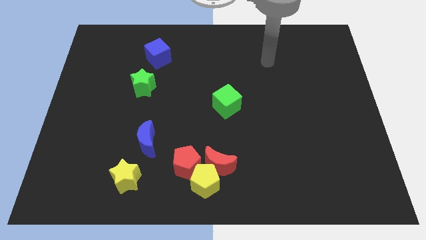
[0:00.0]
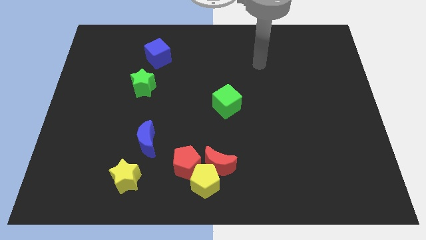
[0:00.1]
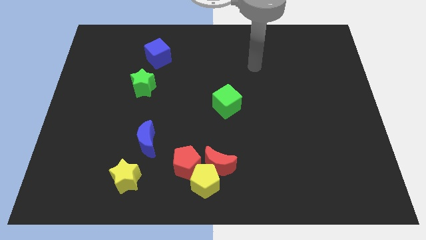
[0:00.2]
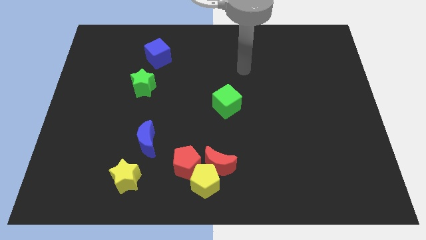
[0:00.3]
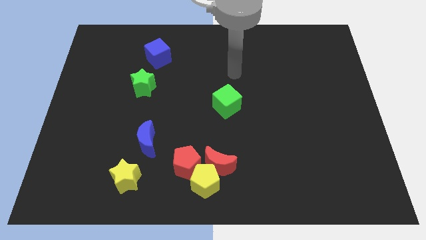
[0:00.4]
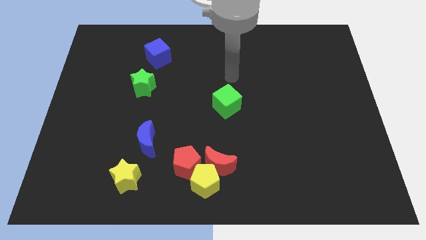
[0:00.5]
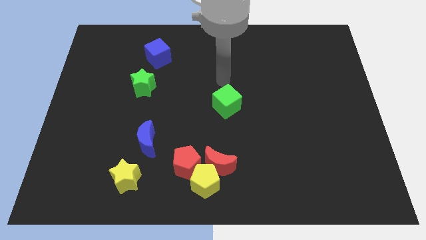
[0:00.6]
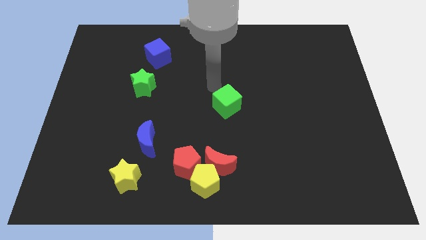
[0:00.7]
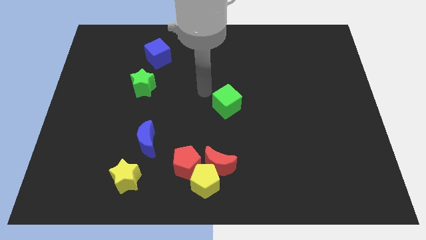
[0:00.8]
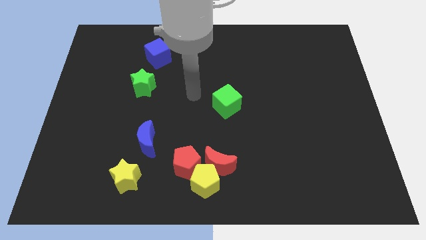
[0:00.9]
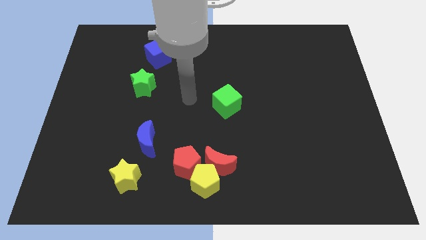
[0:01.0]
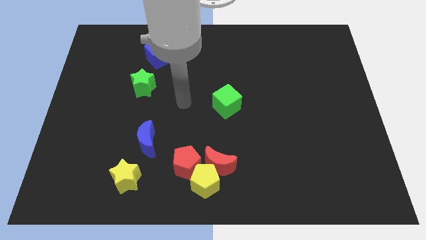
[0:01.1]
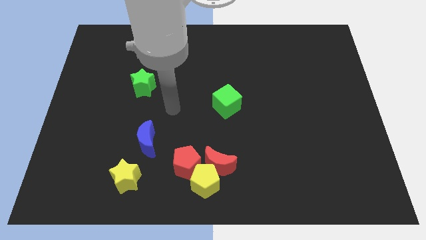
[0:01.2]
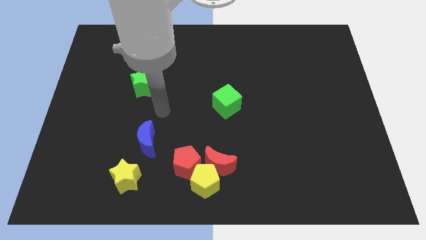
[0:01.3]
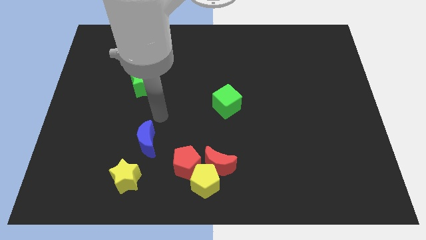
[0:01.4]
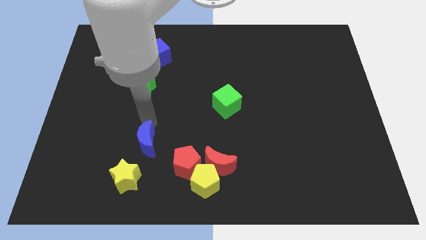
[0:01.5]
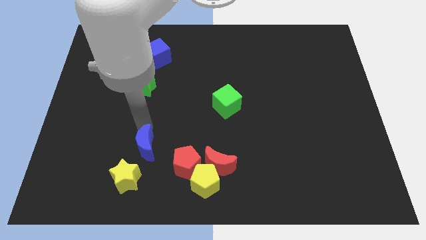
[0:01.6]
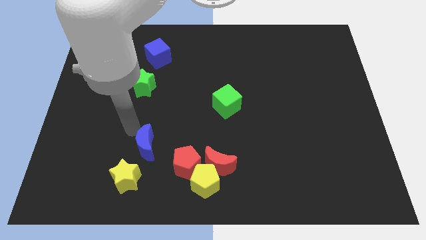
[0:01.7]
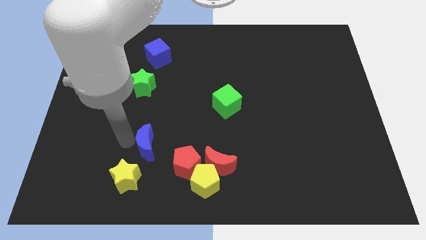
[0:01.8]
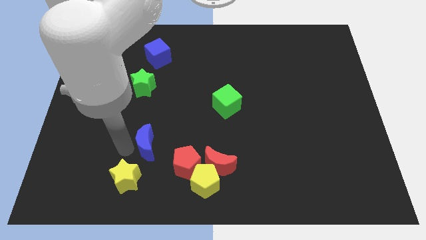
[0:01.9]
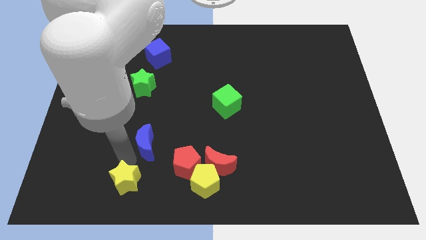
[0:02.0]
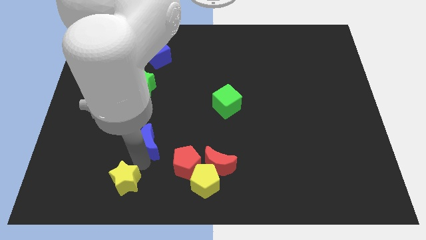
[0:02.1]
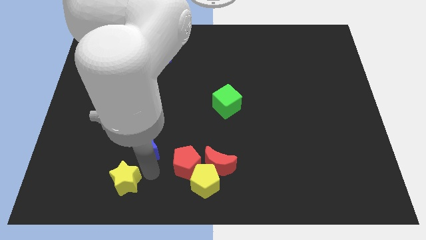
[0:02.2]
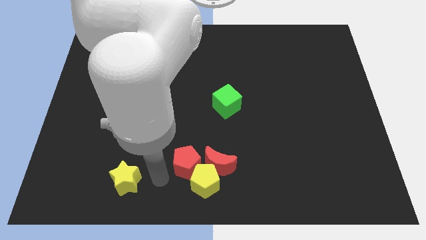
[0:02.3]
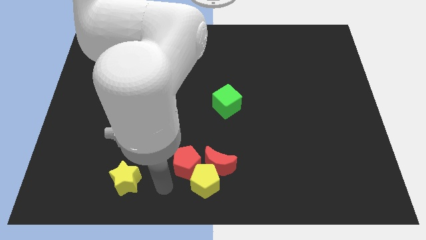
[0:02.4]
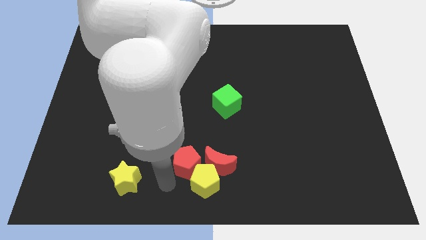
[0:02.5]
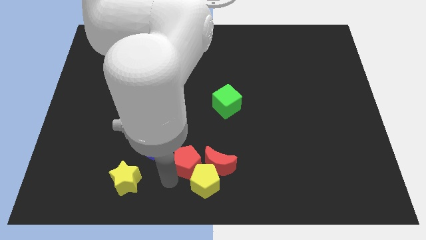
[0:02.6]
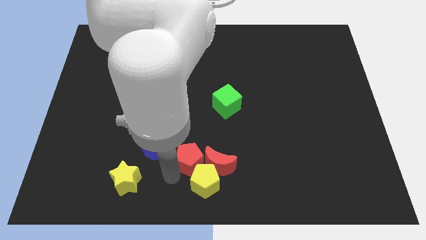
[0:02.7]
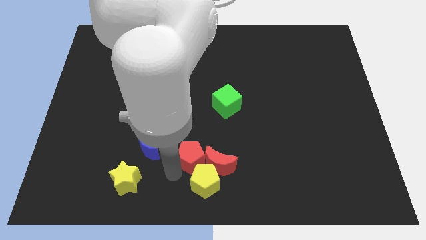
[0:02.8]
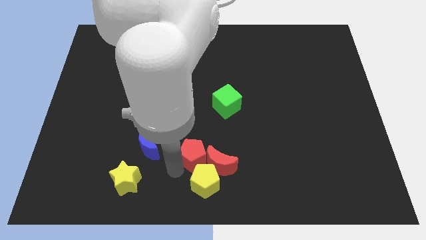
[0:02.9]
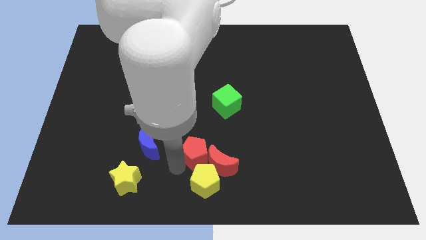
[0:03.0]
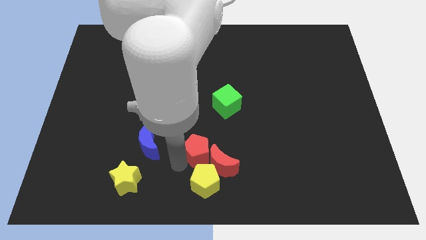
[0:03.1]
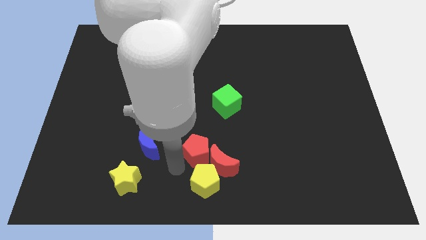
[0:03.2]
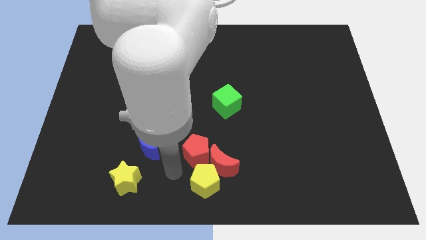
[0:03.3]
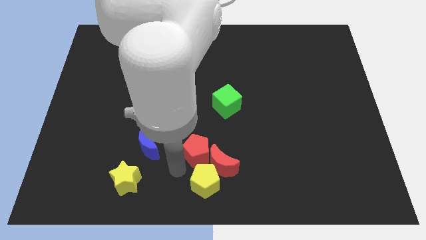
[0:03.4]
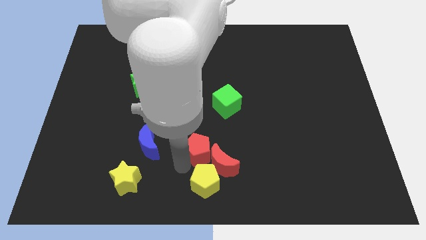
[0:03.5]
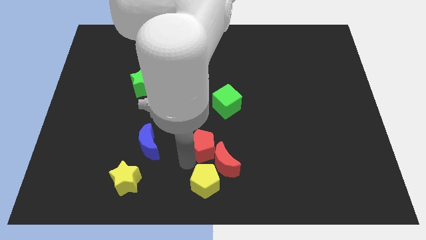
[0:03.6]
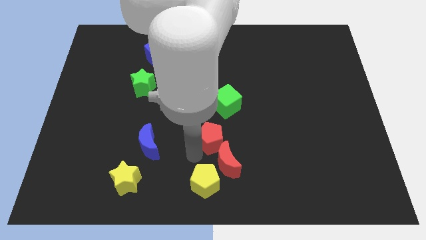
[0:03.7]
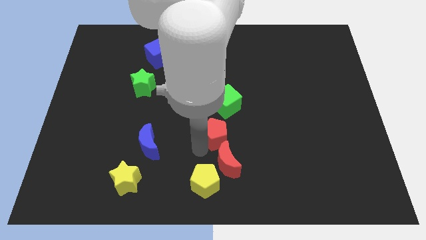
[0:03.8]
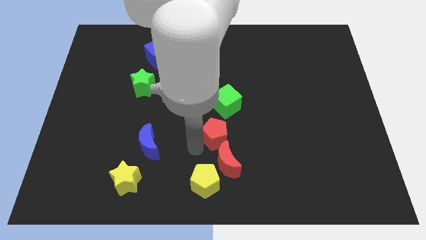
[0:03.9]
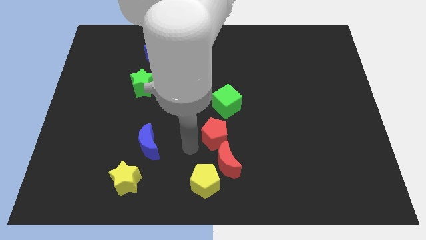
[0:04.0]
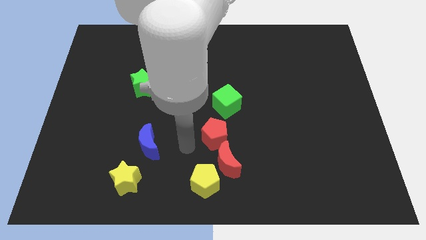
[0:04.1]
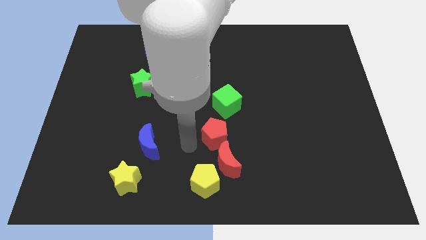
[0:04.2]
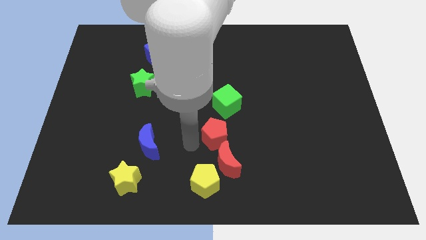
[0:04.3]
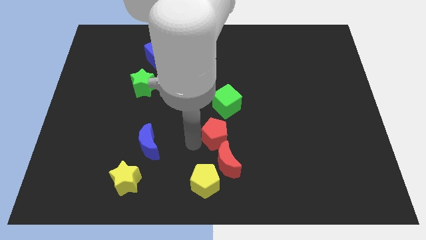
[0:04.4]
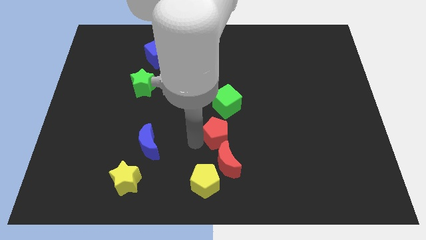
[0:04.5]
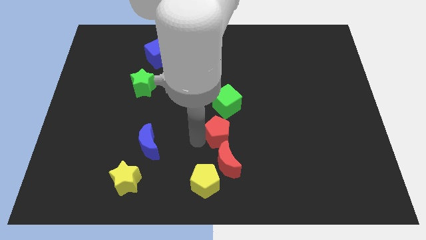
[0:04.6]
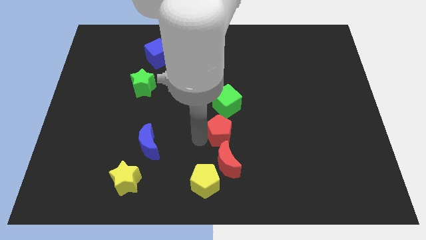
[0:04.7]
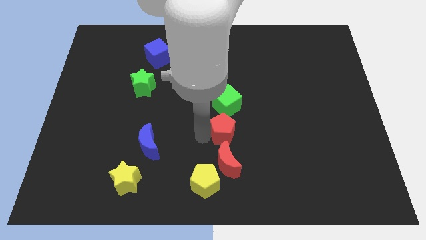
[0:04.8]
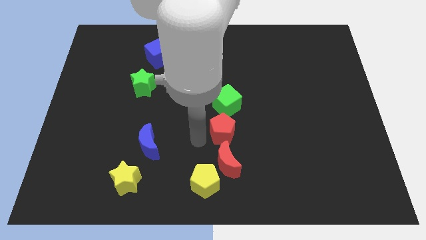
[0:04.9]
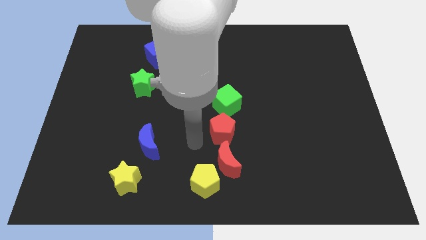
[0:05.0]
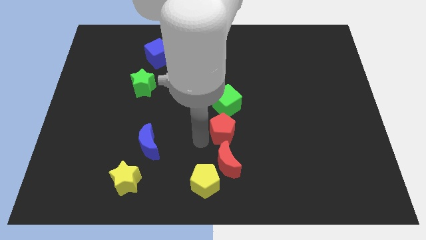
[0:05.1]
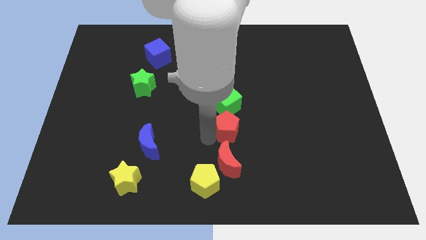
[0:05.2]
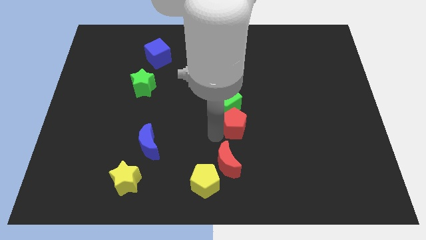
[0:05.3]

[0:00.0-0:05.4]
slide the red pentagon diagonally down and to the right of the green cube

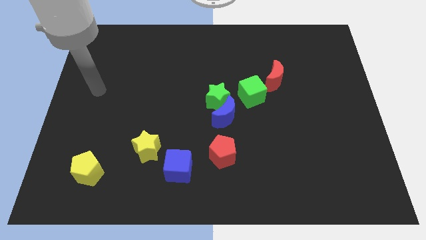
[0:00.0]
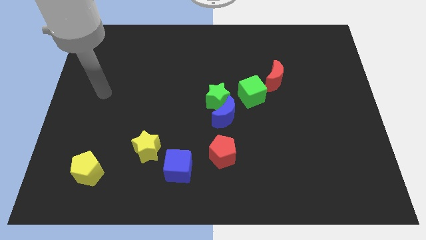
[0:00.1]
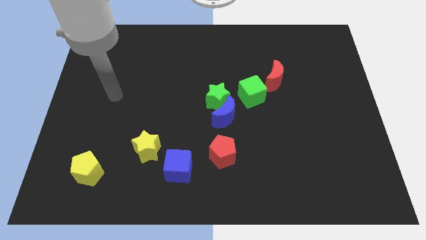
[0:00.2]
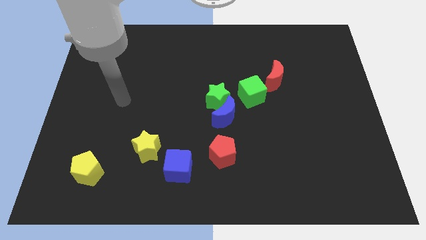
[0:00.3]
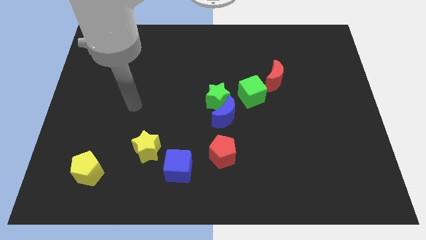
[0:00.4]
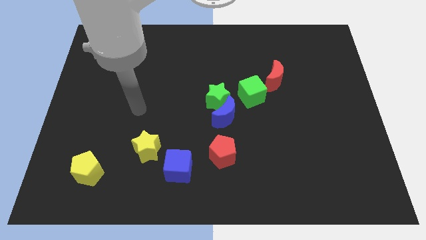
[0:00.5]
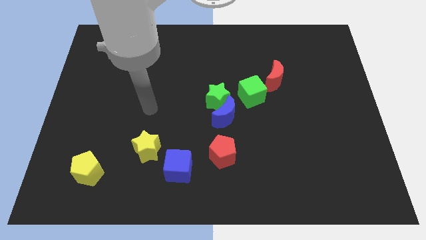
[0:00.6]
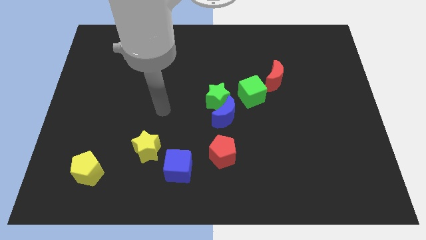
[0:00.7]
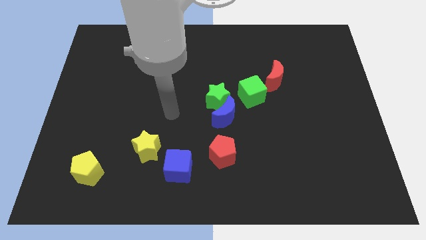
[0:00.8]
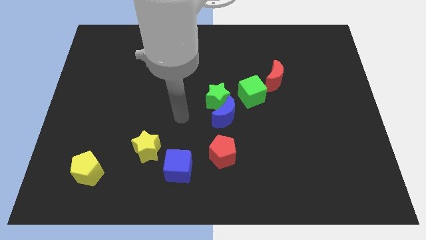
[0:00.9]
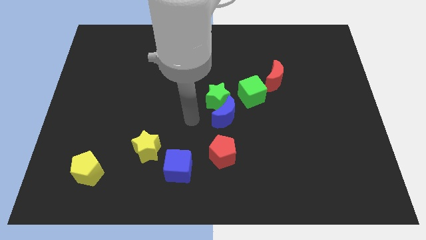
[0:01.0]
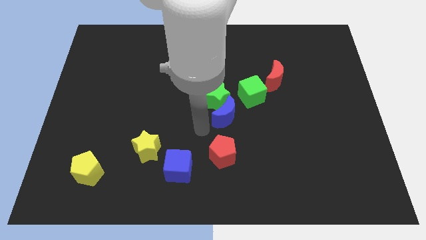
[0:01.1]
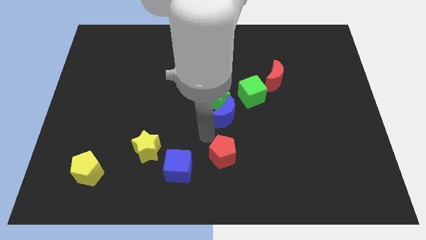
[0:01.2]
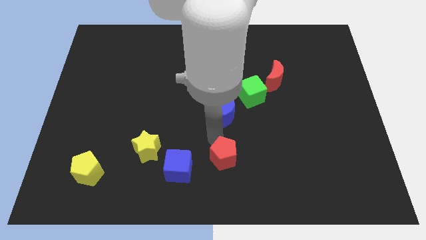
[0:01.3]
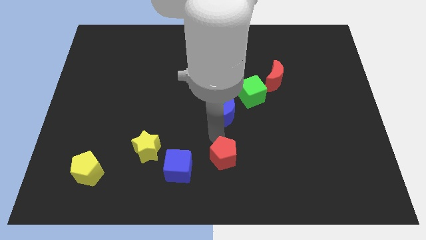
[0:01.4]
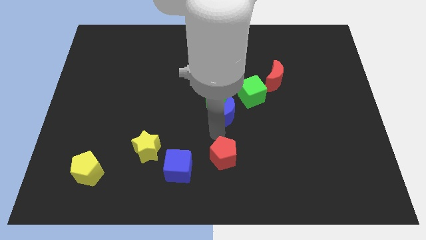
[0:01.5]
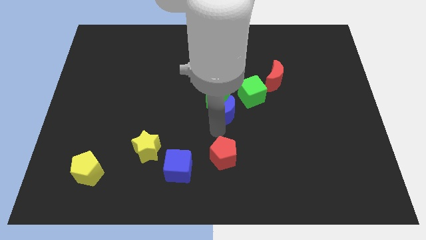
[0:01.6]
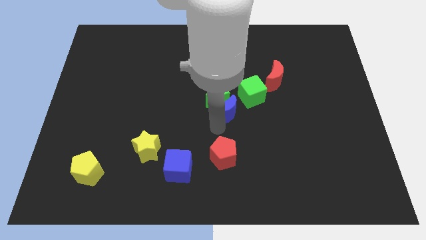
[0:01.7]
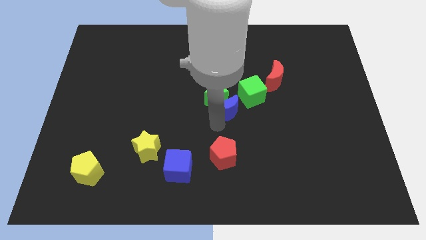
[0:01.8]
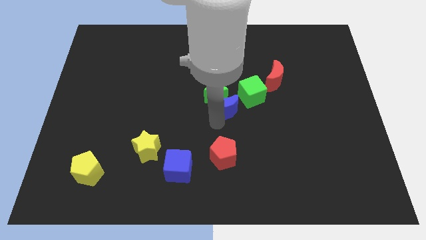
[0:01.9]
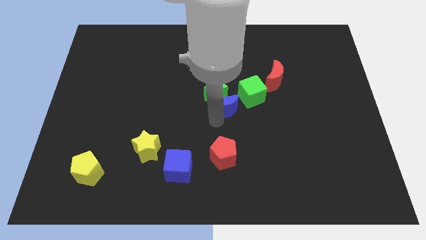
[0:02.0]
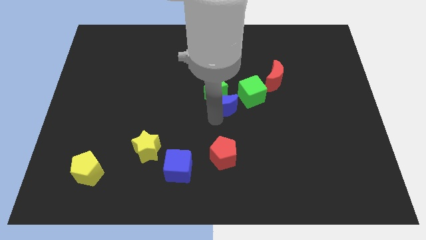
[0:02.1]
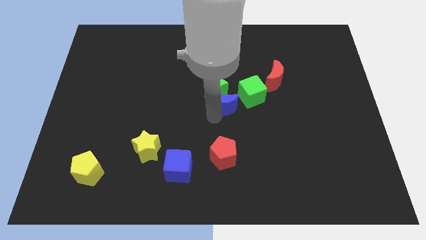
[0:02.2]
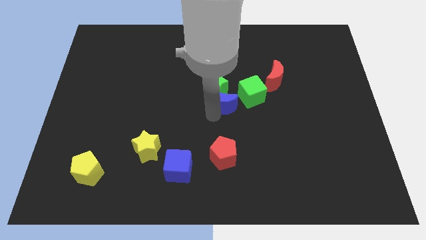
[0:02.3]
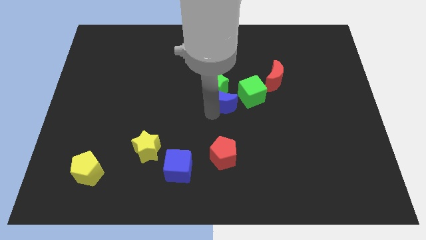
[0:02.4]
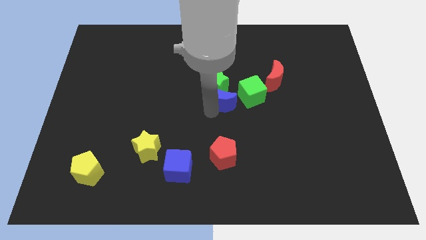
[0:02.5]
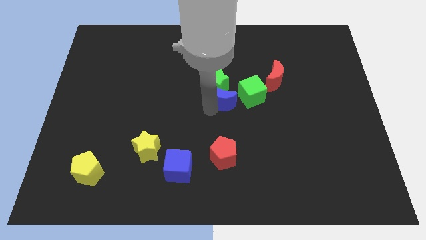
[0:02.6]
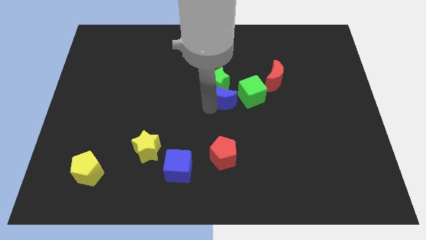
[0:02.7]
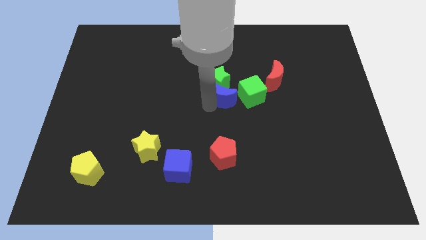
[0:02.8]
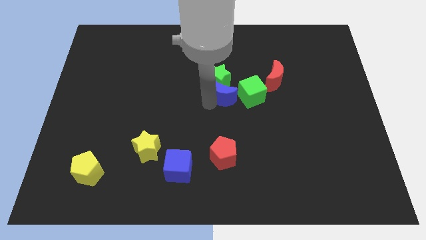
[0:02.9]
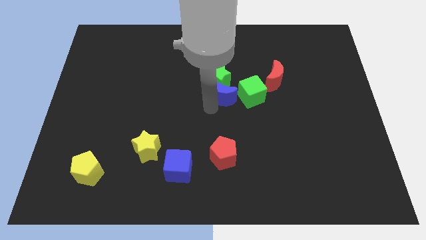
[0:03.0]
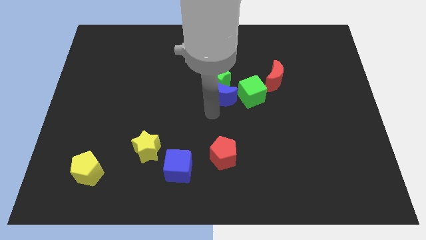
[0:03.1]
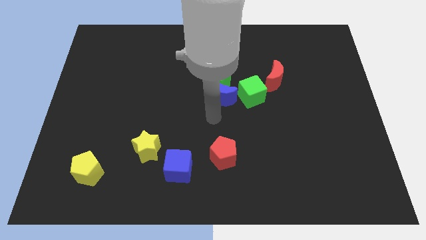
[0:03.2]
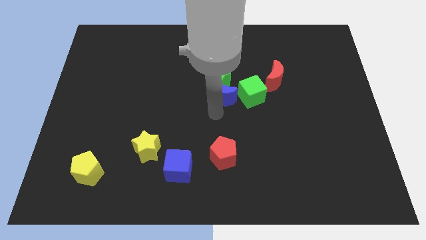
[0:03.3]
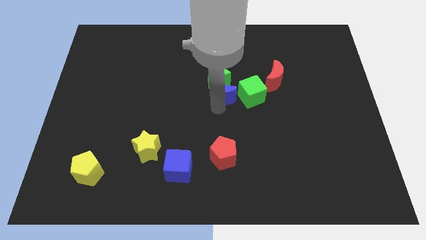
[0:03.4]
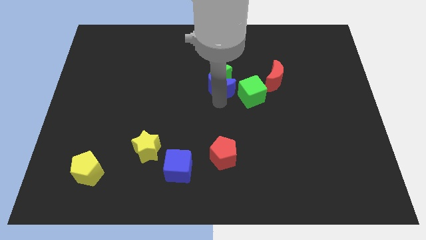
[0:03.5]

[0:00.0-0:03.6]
push the blue moon to the top left of the green cube
